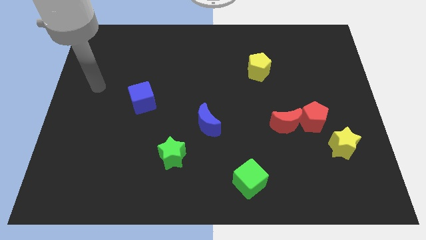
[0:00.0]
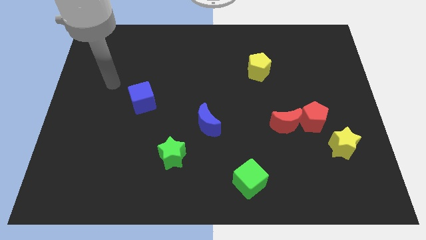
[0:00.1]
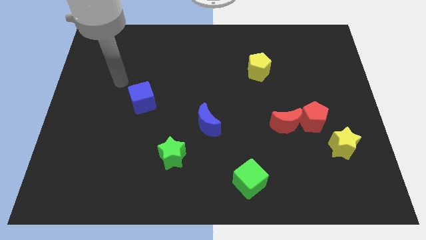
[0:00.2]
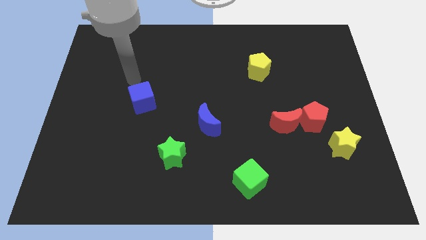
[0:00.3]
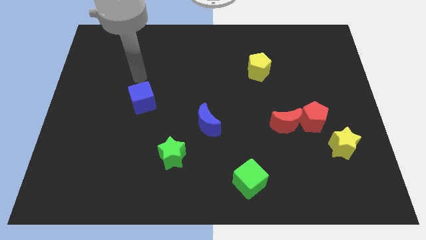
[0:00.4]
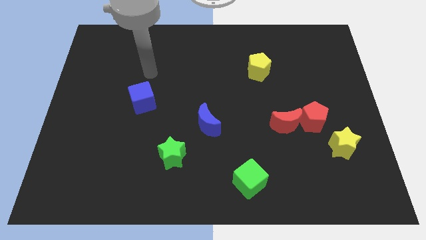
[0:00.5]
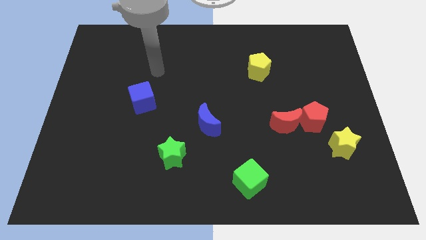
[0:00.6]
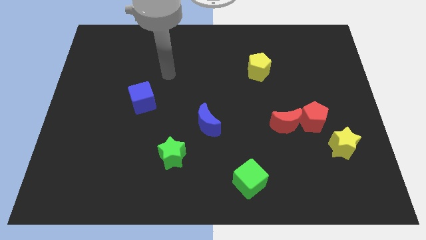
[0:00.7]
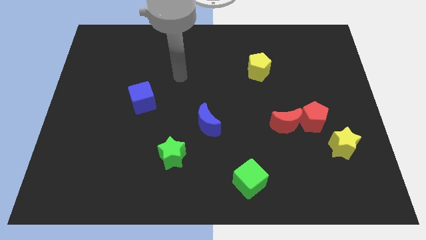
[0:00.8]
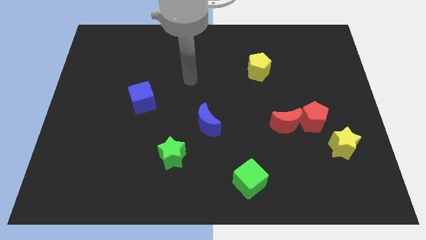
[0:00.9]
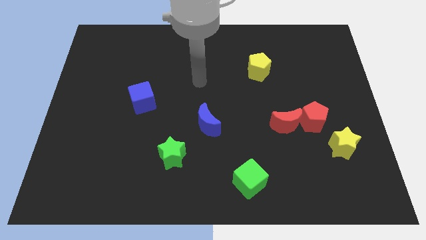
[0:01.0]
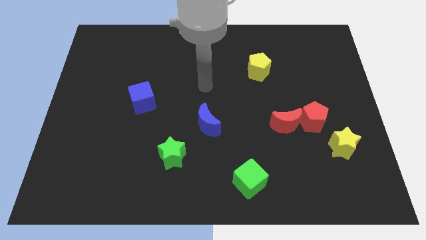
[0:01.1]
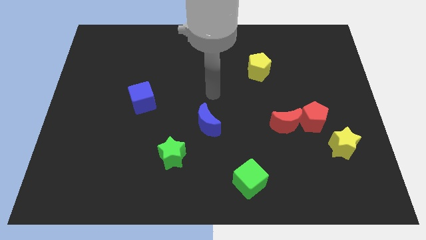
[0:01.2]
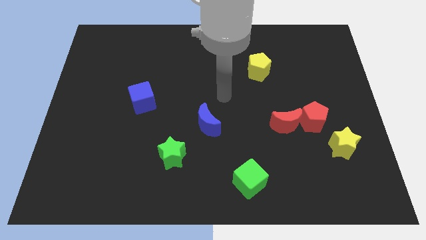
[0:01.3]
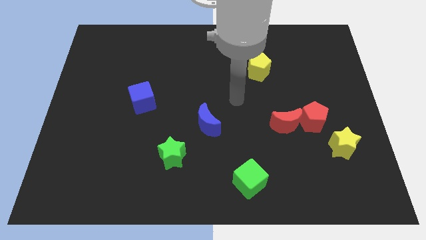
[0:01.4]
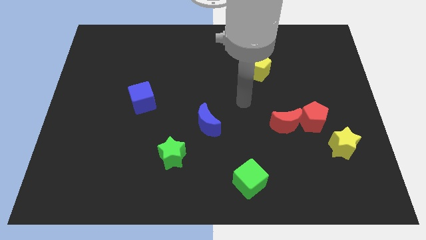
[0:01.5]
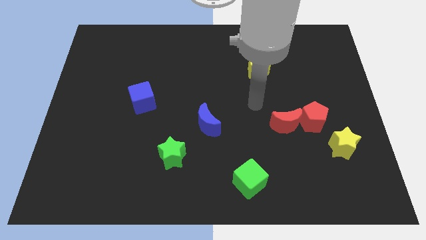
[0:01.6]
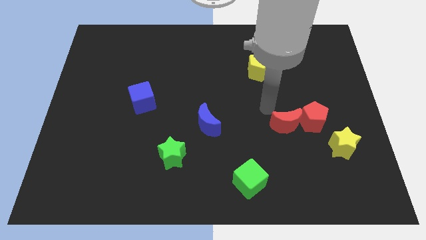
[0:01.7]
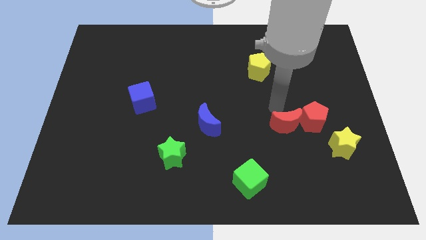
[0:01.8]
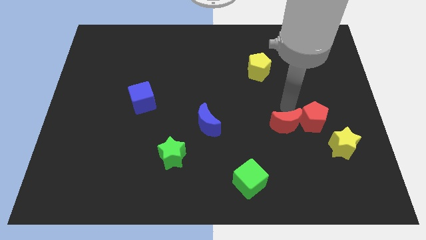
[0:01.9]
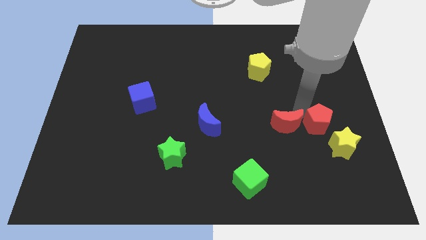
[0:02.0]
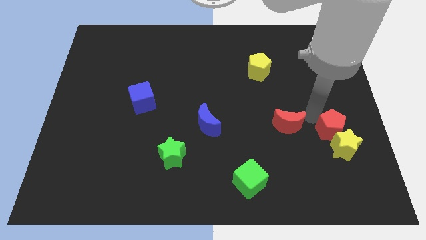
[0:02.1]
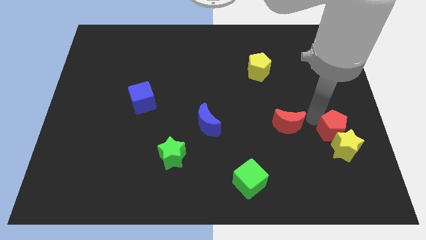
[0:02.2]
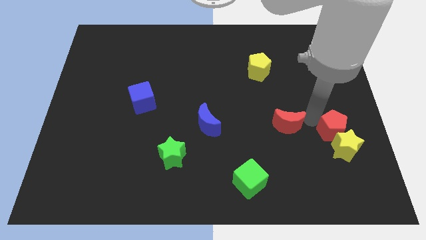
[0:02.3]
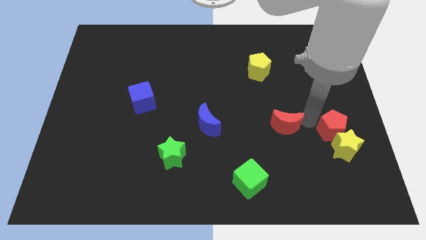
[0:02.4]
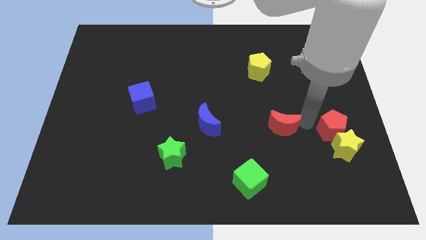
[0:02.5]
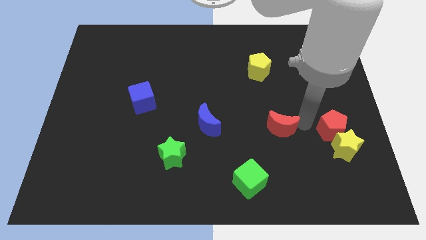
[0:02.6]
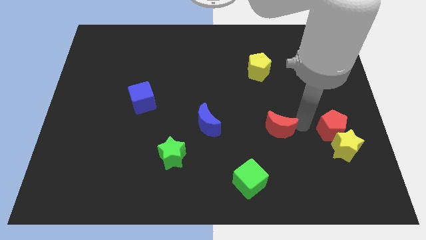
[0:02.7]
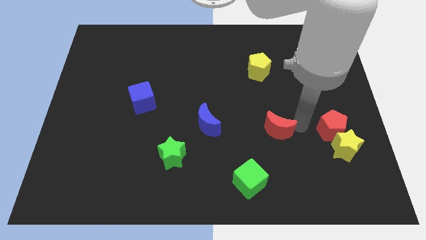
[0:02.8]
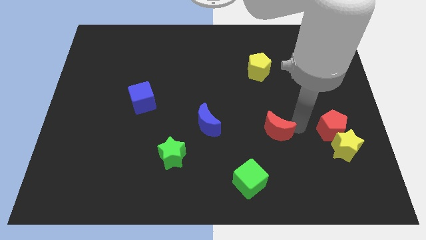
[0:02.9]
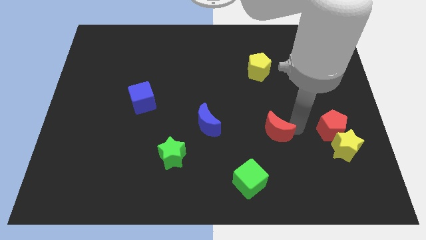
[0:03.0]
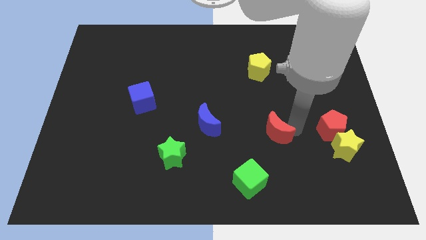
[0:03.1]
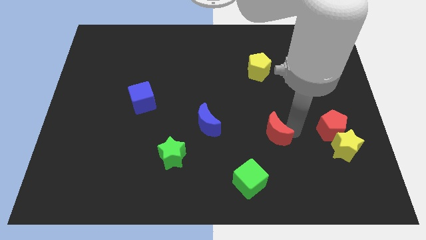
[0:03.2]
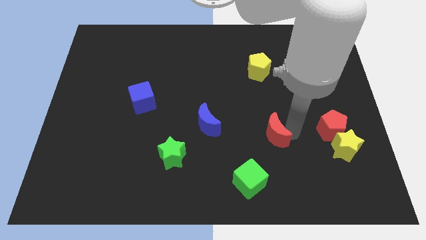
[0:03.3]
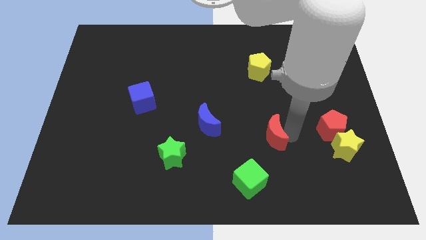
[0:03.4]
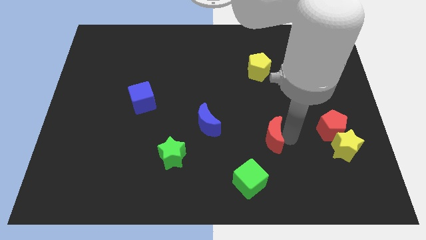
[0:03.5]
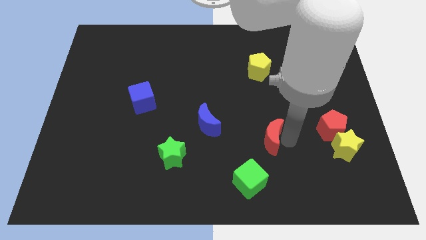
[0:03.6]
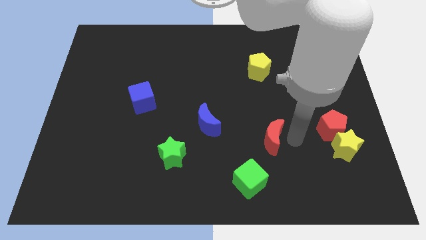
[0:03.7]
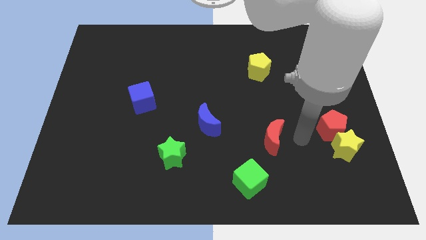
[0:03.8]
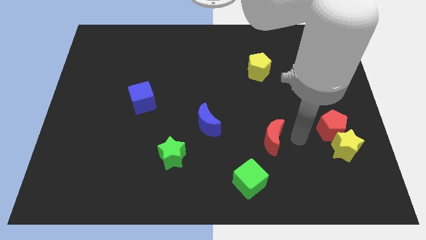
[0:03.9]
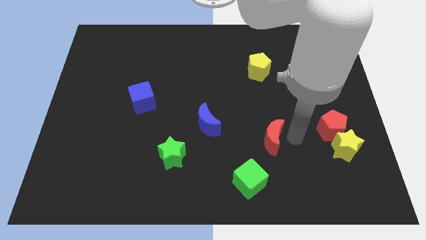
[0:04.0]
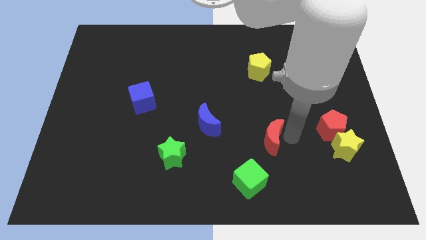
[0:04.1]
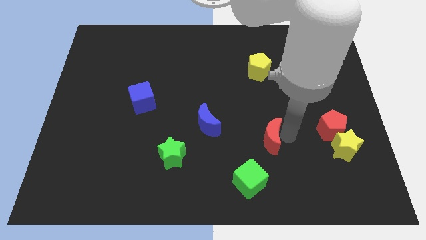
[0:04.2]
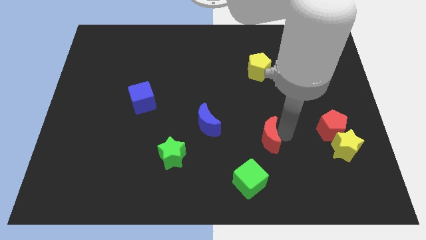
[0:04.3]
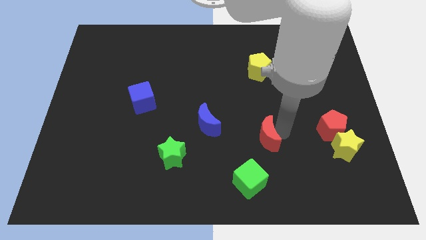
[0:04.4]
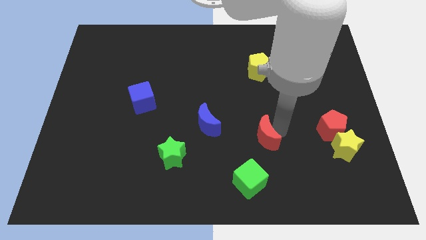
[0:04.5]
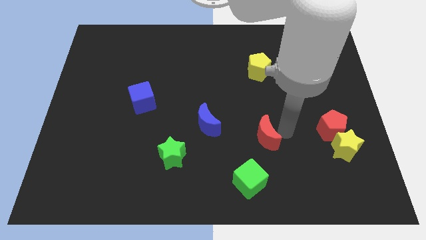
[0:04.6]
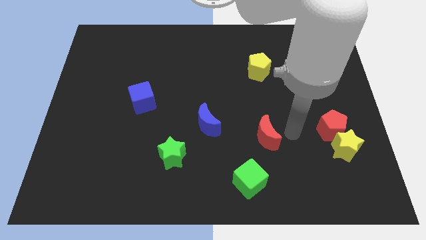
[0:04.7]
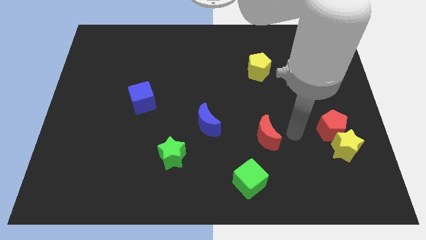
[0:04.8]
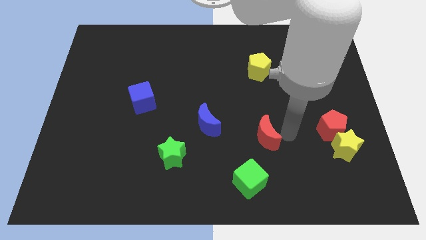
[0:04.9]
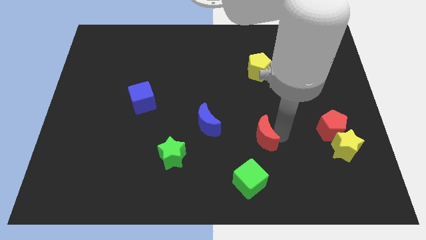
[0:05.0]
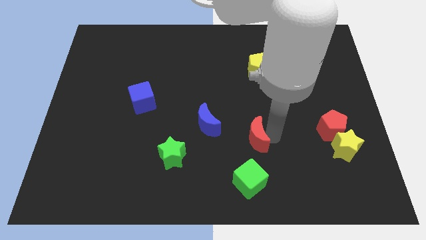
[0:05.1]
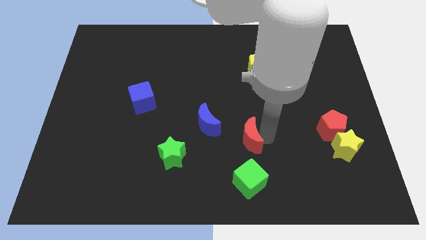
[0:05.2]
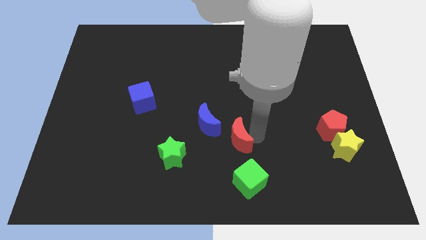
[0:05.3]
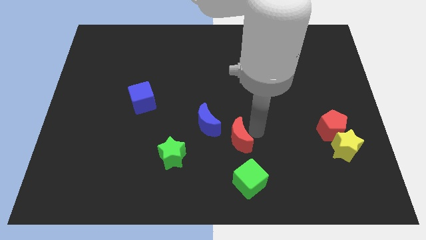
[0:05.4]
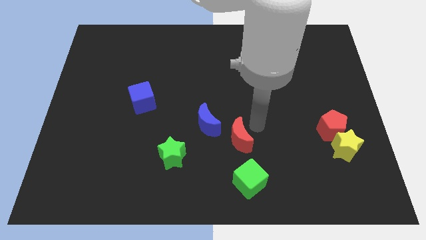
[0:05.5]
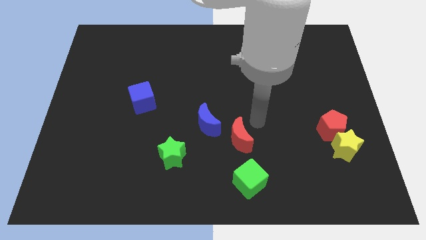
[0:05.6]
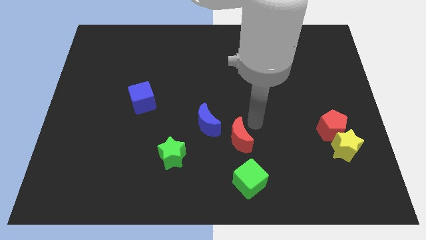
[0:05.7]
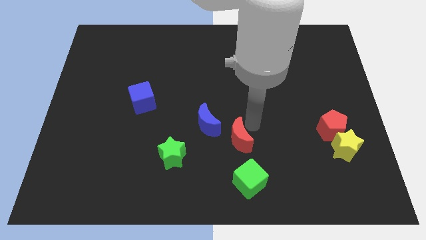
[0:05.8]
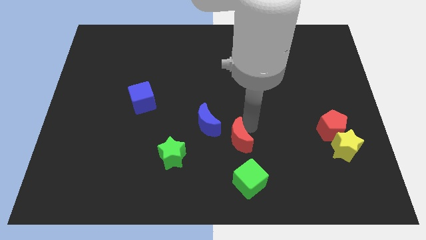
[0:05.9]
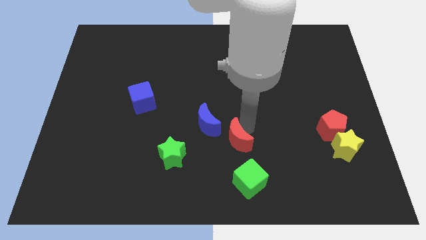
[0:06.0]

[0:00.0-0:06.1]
put the red moon to the right side of the green star

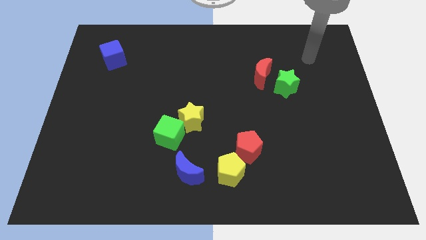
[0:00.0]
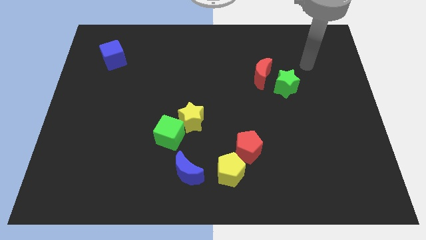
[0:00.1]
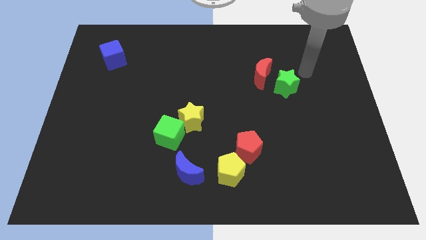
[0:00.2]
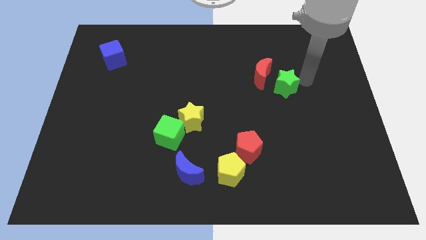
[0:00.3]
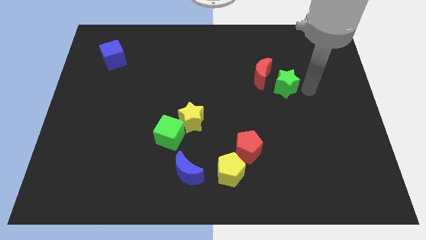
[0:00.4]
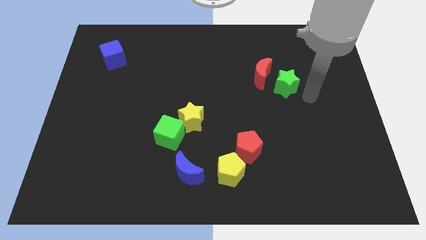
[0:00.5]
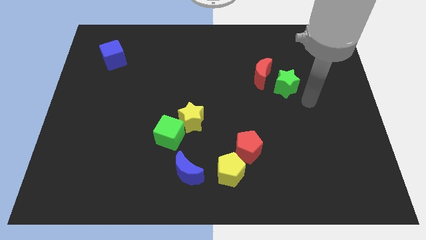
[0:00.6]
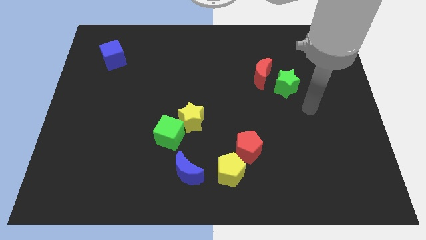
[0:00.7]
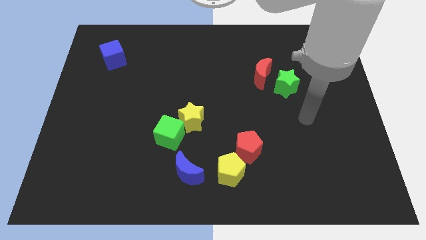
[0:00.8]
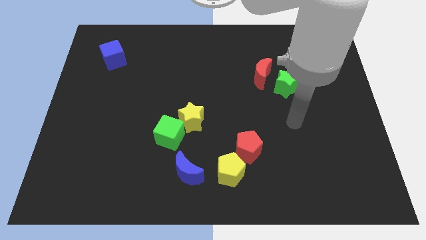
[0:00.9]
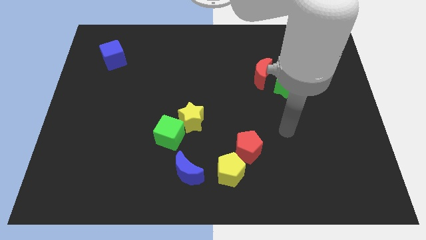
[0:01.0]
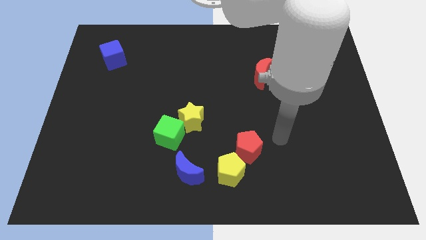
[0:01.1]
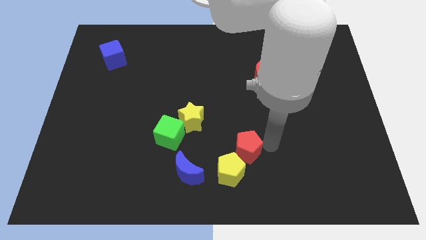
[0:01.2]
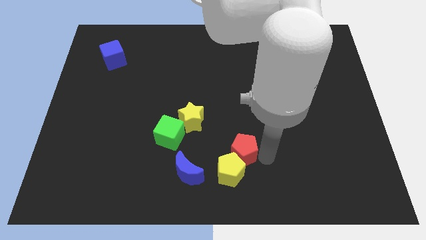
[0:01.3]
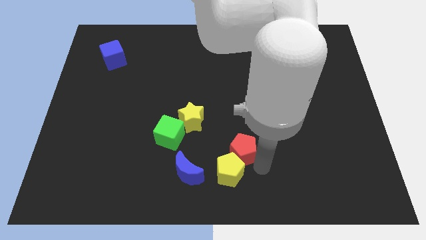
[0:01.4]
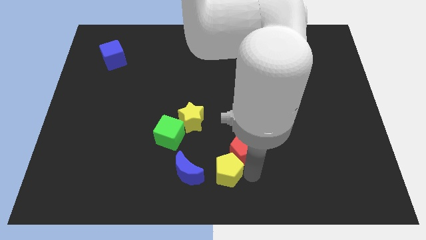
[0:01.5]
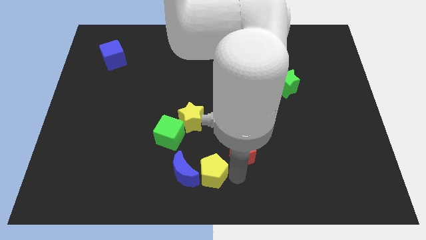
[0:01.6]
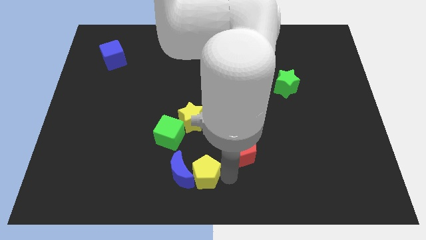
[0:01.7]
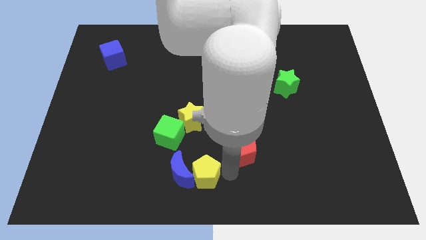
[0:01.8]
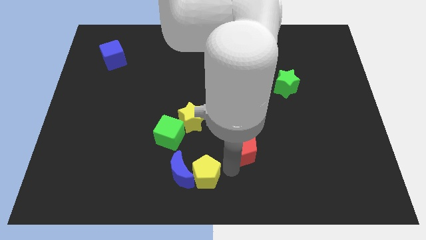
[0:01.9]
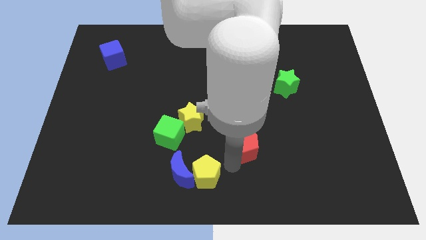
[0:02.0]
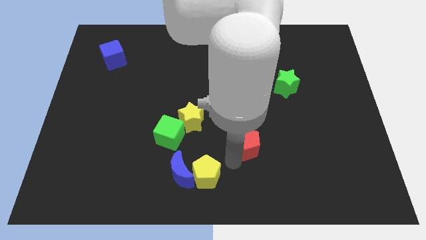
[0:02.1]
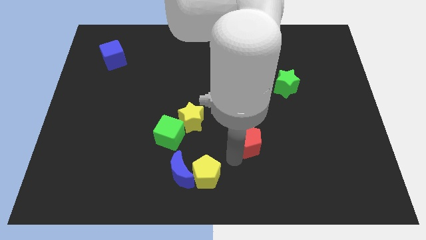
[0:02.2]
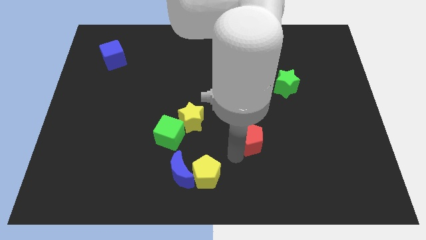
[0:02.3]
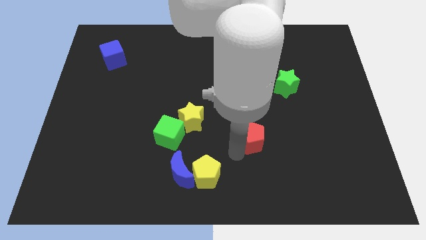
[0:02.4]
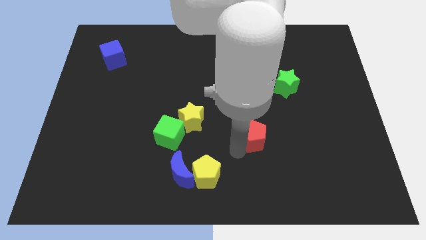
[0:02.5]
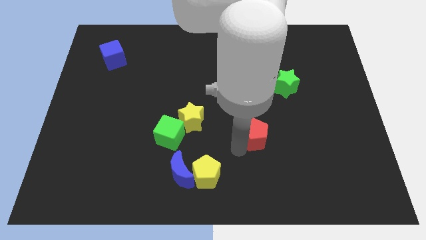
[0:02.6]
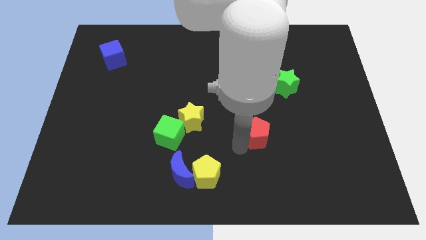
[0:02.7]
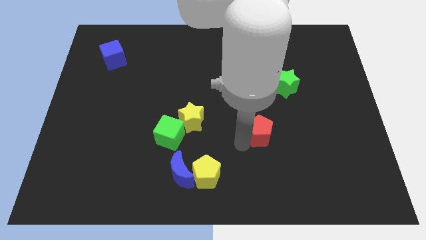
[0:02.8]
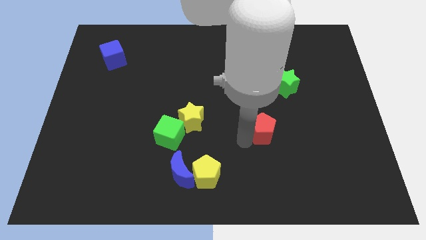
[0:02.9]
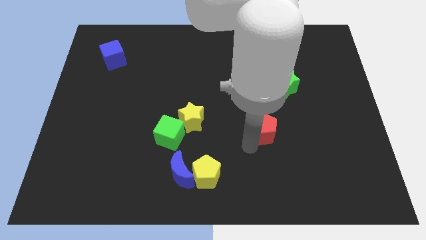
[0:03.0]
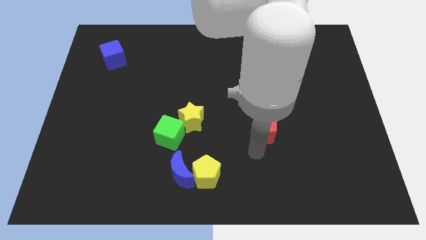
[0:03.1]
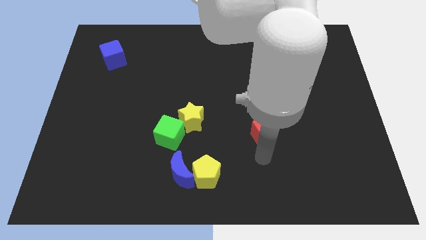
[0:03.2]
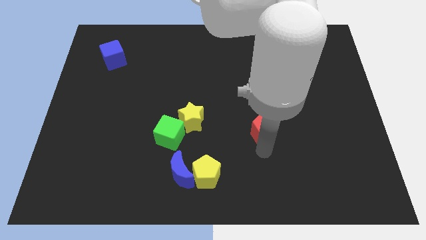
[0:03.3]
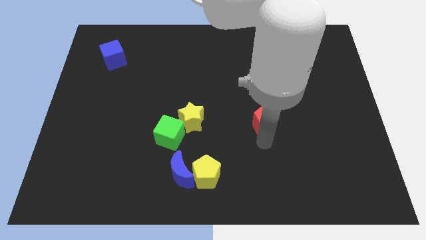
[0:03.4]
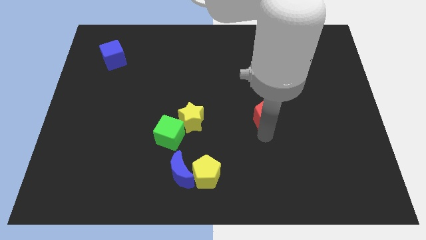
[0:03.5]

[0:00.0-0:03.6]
move the red pentagon to the bottom left side of the green star
